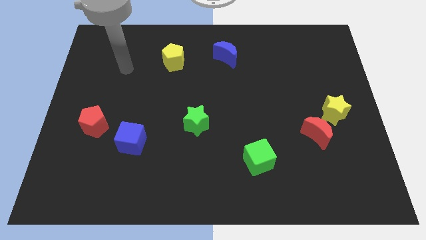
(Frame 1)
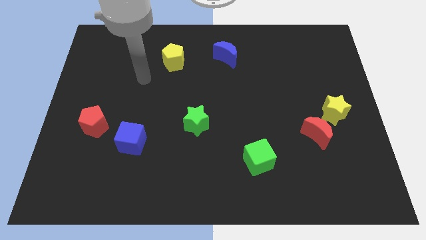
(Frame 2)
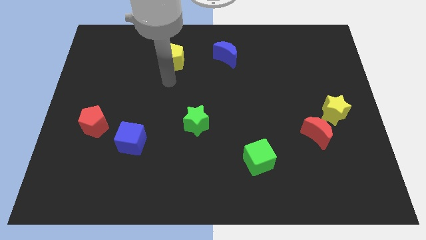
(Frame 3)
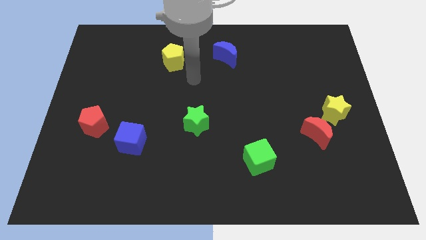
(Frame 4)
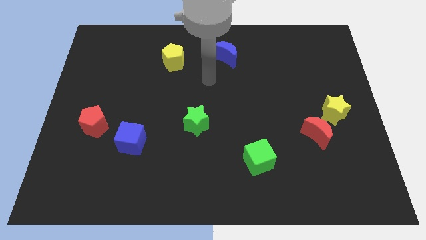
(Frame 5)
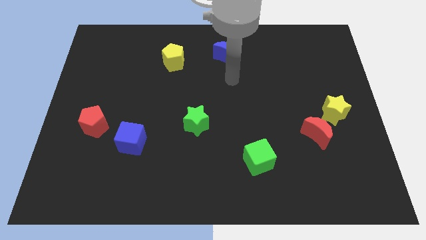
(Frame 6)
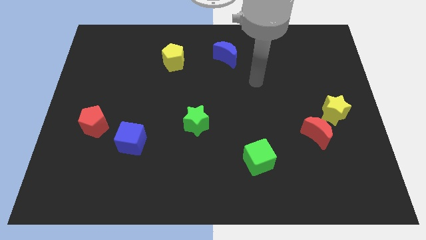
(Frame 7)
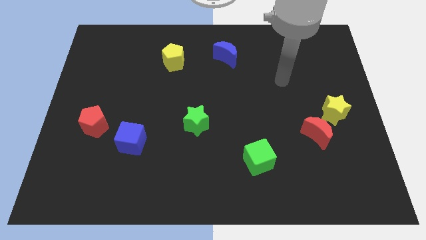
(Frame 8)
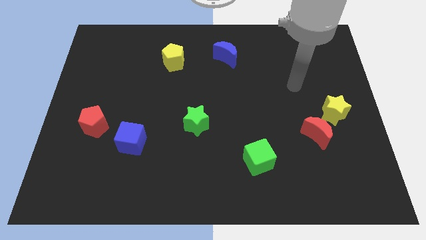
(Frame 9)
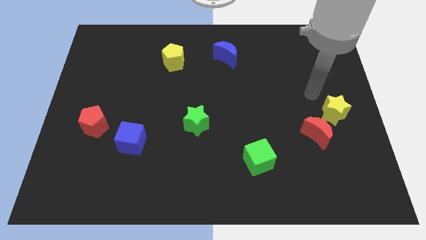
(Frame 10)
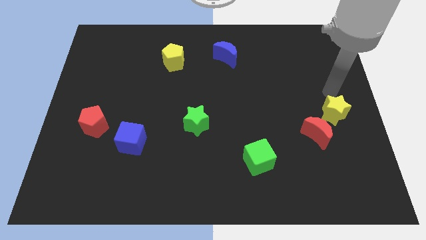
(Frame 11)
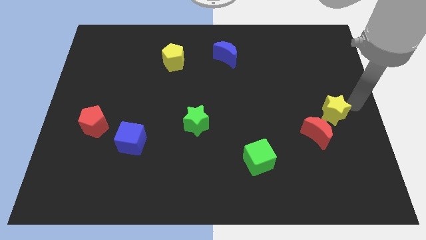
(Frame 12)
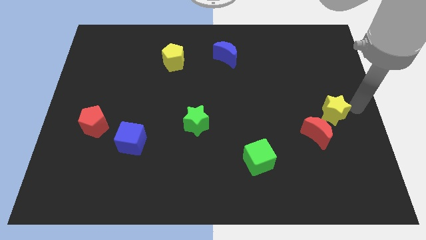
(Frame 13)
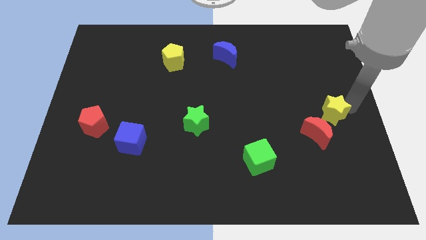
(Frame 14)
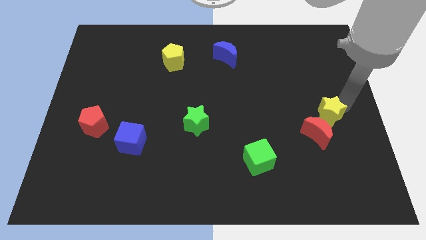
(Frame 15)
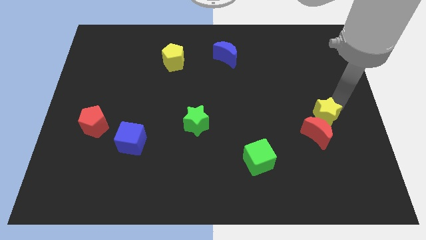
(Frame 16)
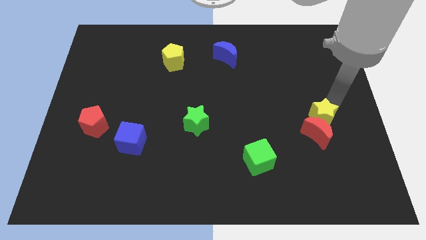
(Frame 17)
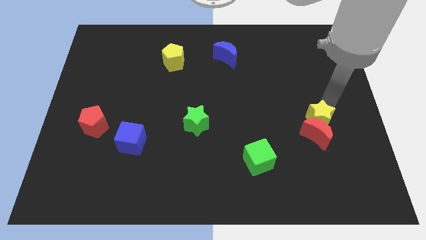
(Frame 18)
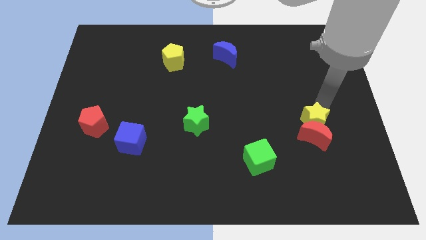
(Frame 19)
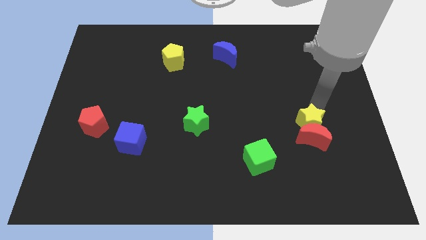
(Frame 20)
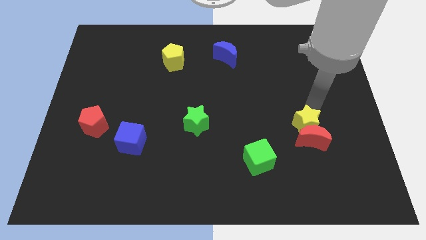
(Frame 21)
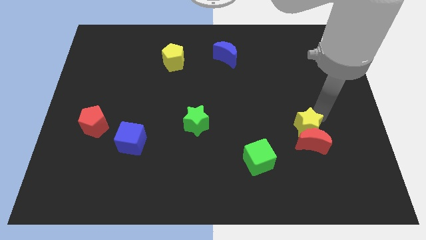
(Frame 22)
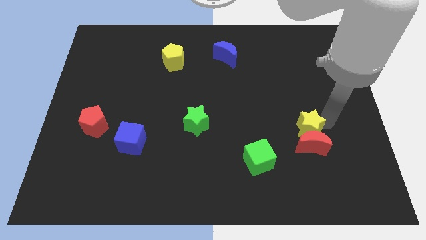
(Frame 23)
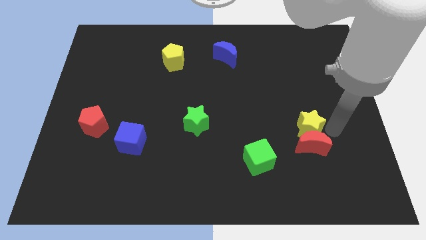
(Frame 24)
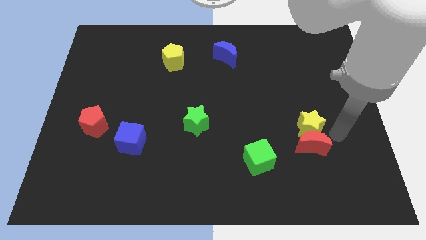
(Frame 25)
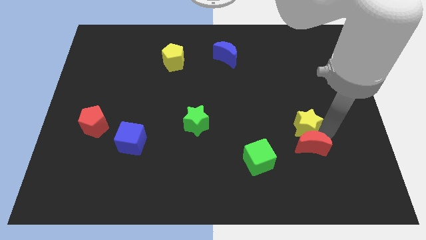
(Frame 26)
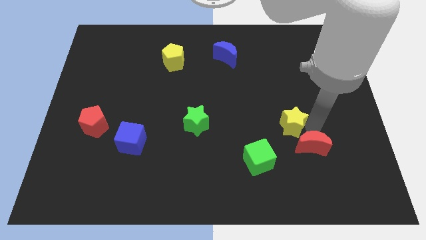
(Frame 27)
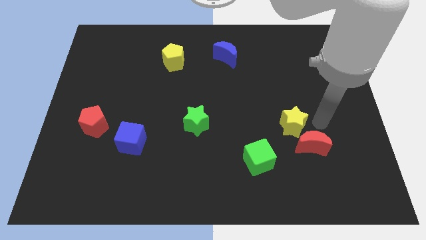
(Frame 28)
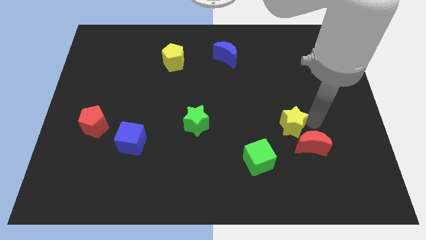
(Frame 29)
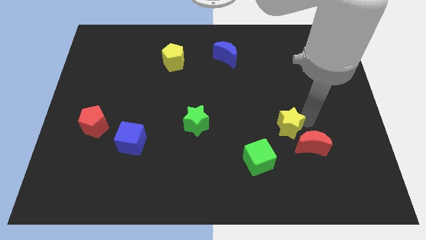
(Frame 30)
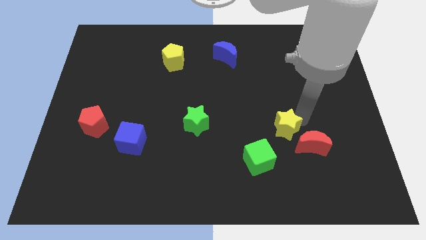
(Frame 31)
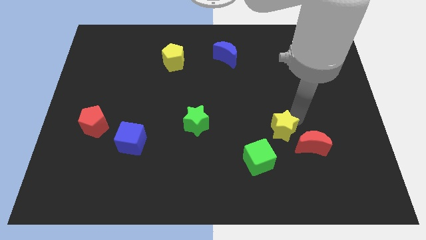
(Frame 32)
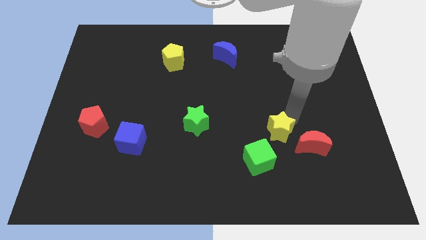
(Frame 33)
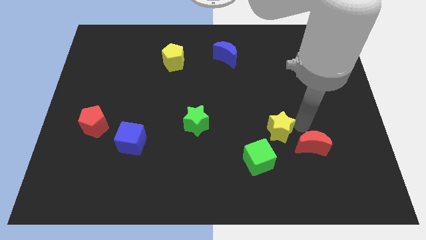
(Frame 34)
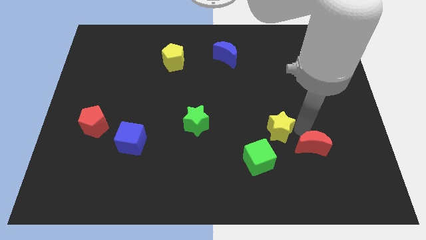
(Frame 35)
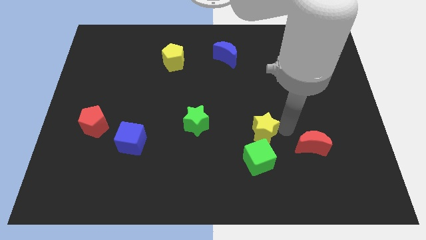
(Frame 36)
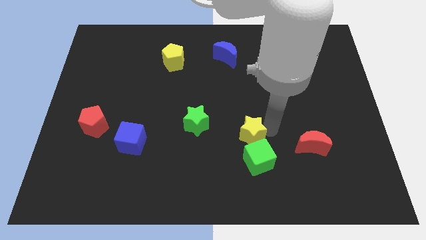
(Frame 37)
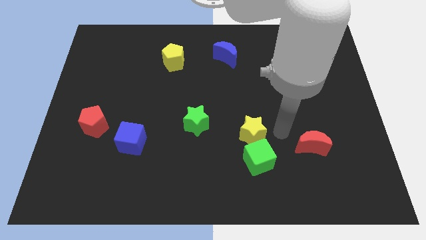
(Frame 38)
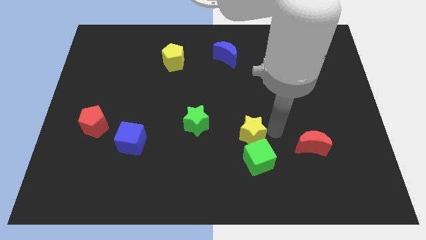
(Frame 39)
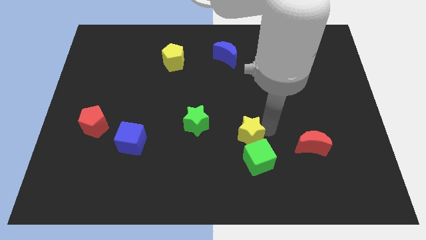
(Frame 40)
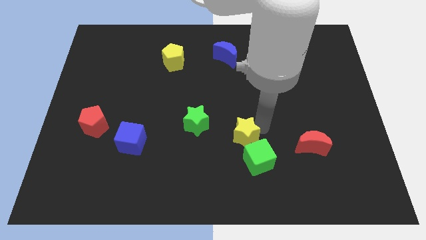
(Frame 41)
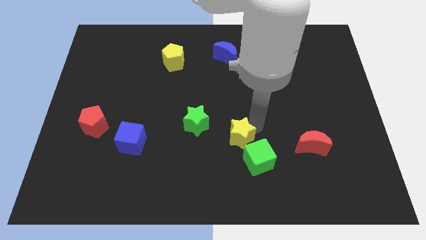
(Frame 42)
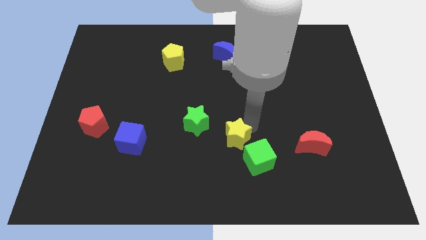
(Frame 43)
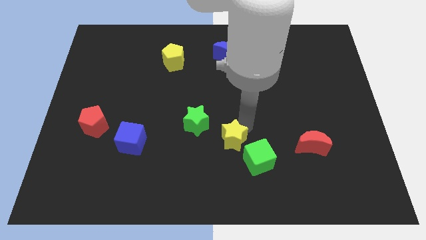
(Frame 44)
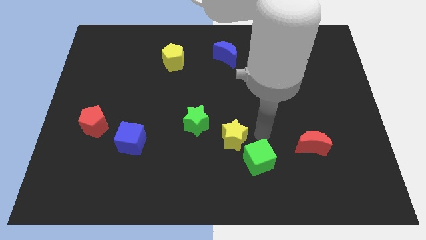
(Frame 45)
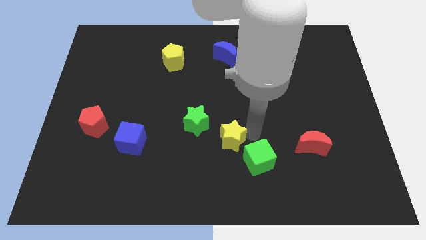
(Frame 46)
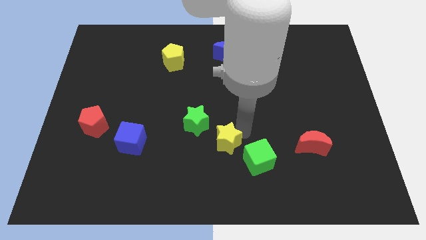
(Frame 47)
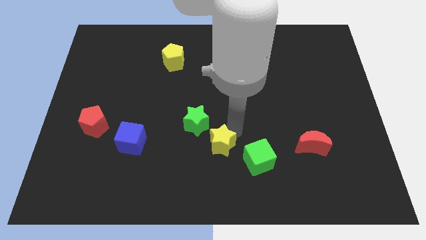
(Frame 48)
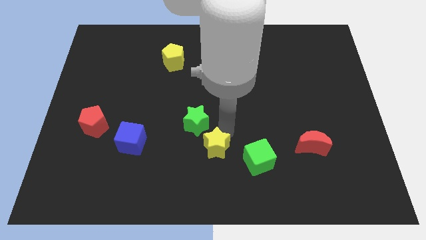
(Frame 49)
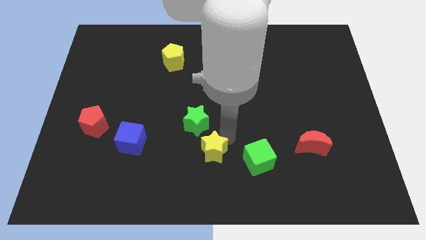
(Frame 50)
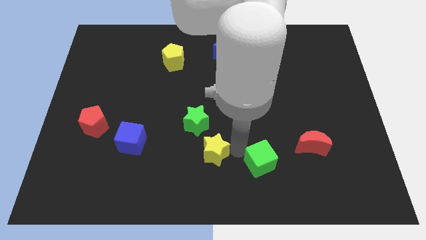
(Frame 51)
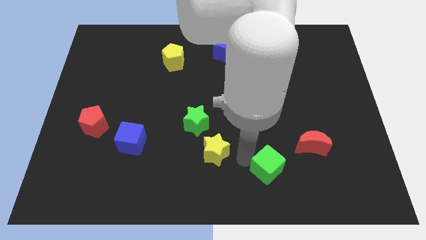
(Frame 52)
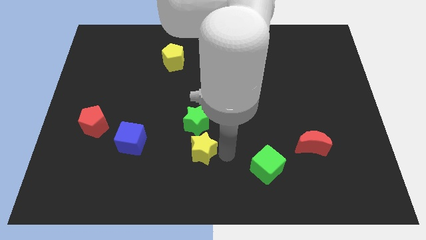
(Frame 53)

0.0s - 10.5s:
put the yellow star just right of the blue cube

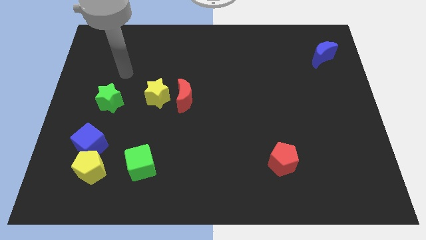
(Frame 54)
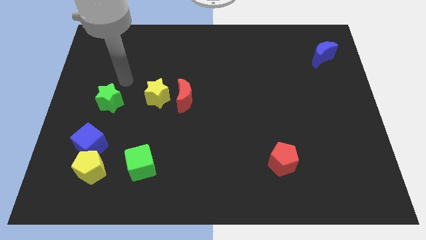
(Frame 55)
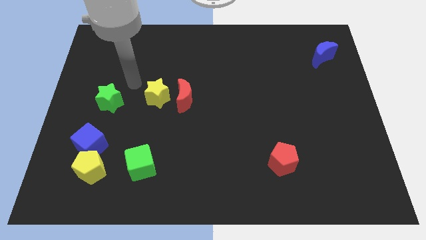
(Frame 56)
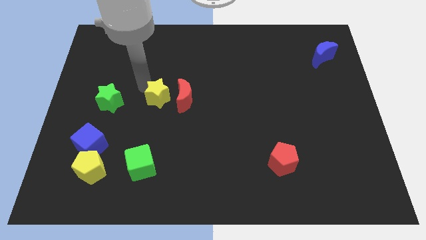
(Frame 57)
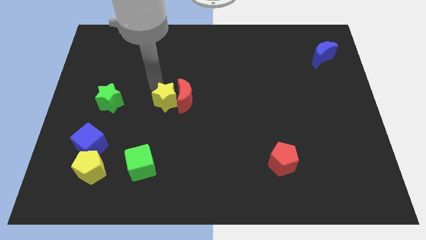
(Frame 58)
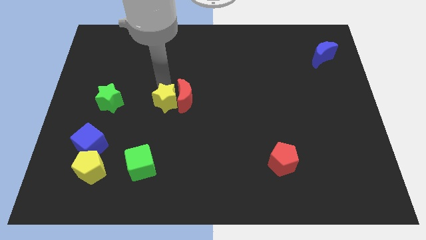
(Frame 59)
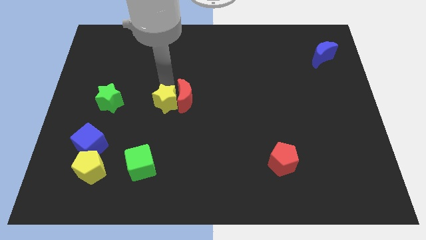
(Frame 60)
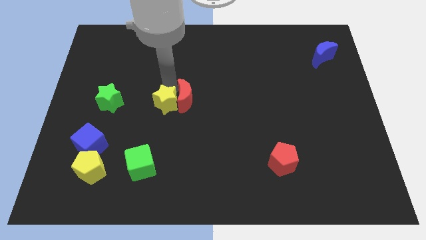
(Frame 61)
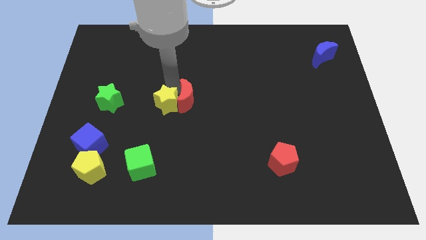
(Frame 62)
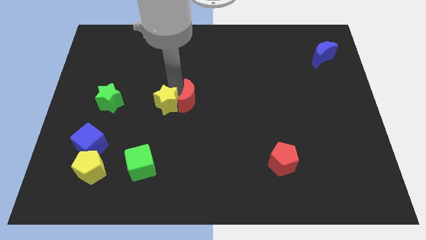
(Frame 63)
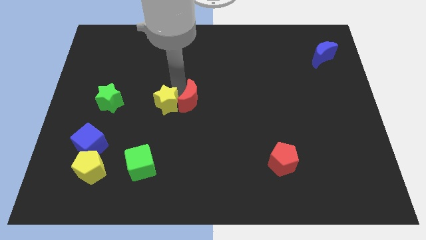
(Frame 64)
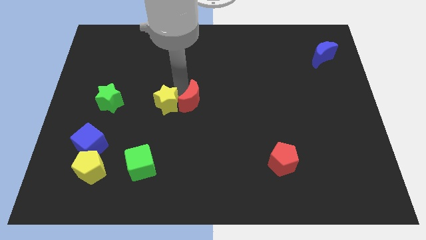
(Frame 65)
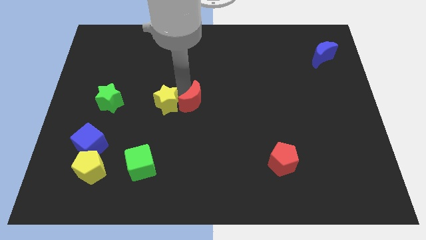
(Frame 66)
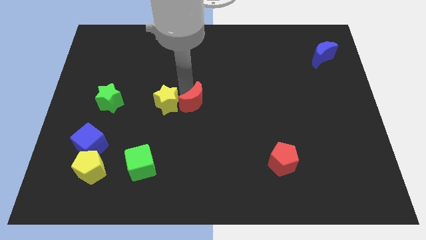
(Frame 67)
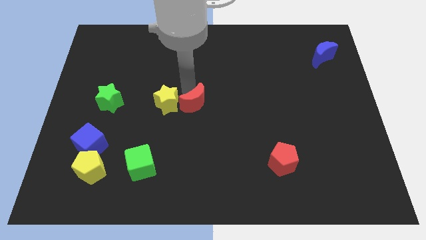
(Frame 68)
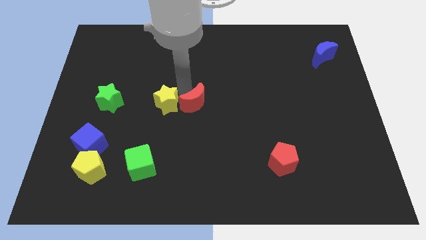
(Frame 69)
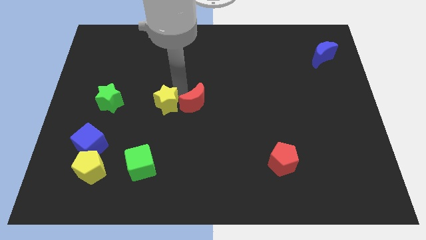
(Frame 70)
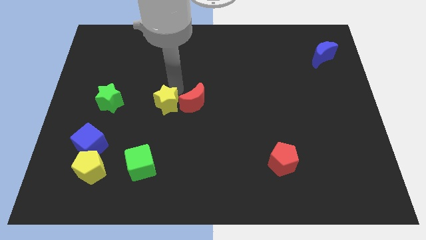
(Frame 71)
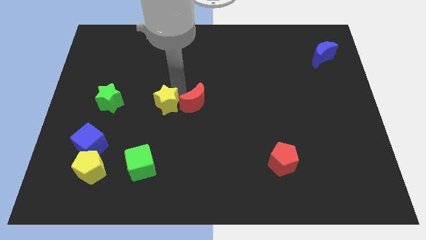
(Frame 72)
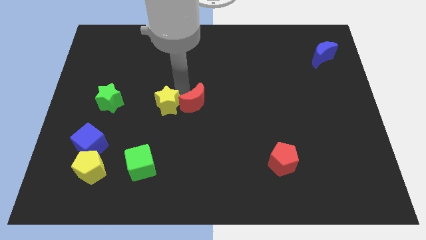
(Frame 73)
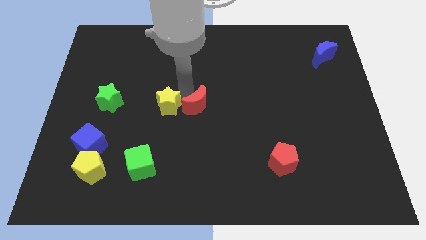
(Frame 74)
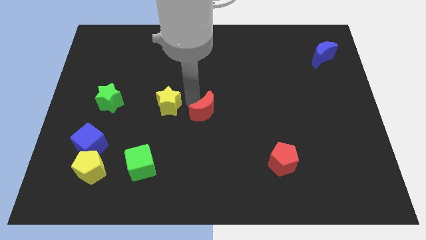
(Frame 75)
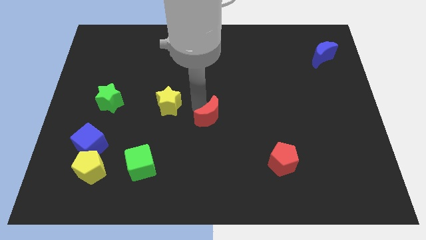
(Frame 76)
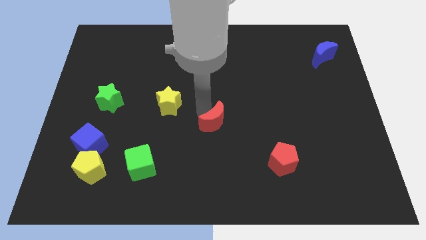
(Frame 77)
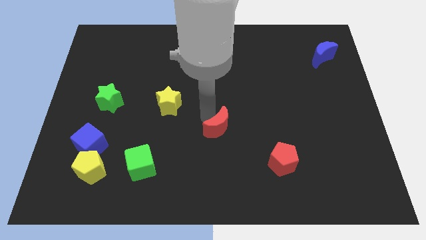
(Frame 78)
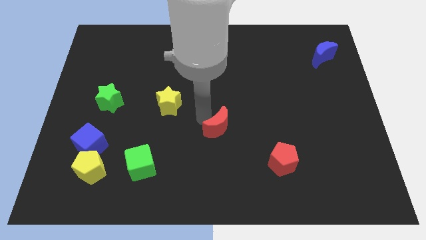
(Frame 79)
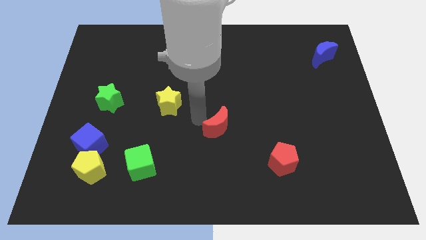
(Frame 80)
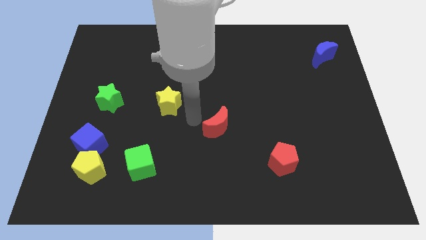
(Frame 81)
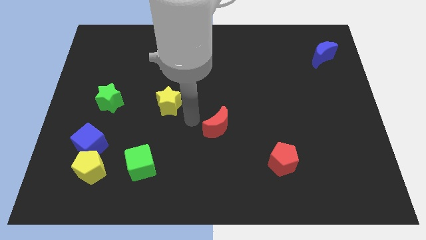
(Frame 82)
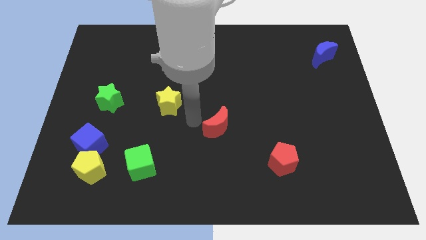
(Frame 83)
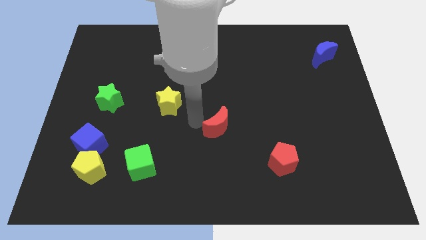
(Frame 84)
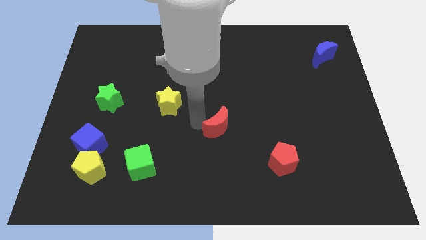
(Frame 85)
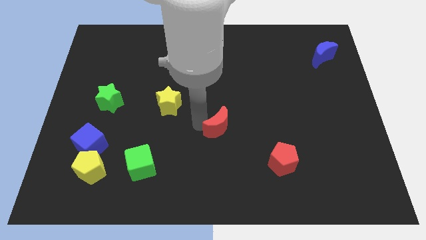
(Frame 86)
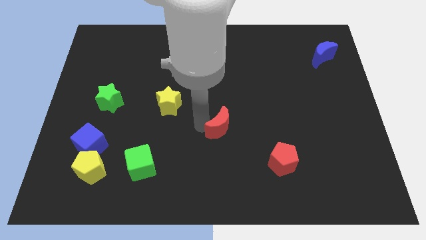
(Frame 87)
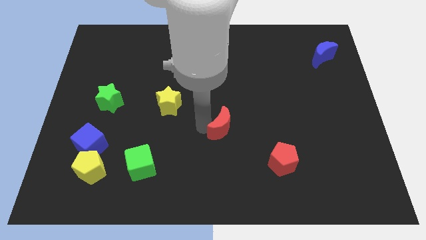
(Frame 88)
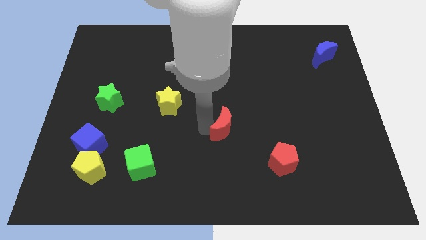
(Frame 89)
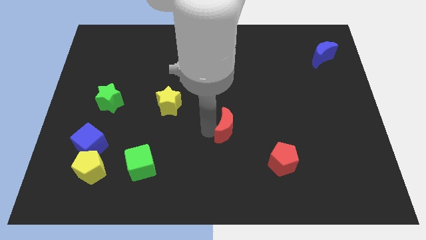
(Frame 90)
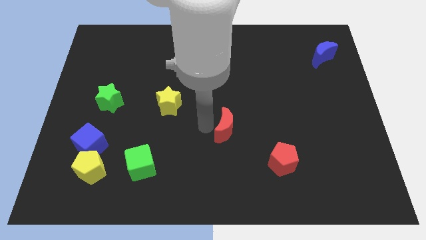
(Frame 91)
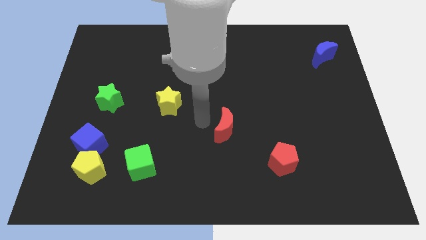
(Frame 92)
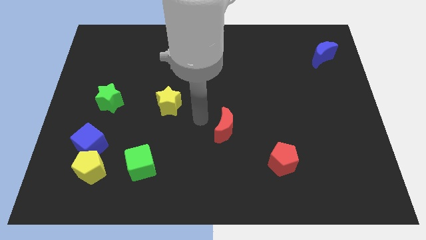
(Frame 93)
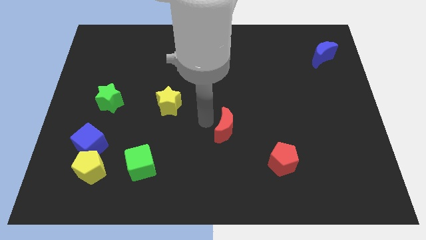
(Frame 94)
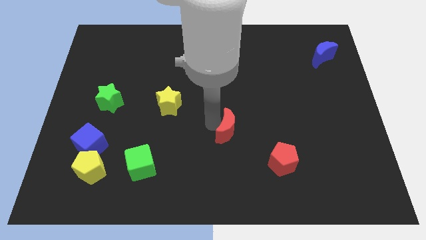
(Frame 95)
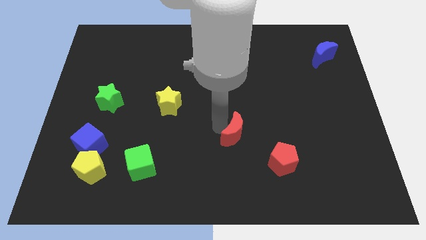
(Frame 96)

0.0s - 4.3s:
slide the red moon to the top left of the red pentagon
